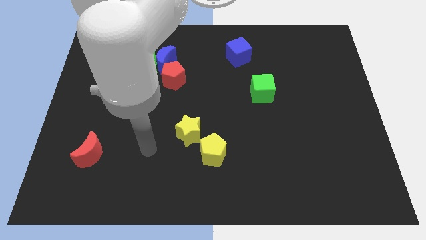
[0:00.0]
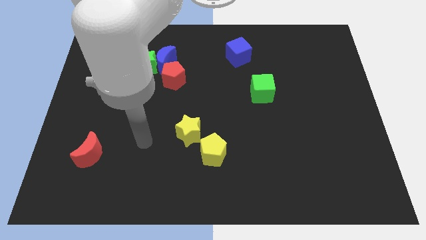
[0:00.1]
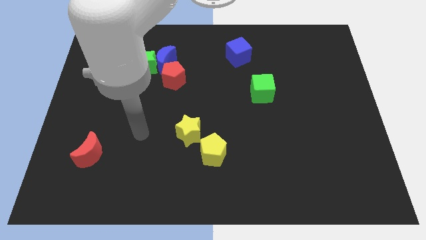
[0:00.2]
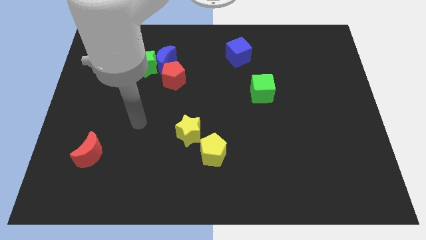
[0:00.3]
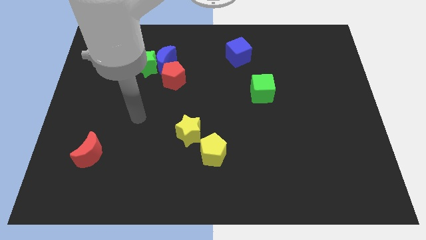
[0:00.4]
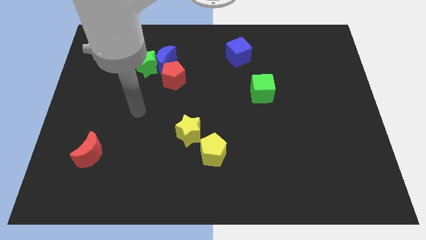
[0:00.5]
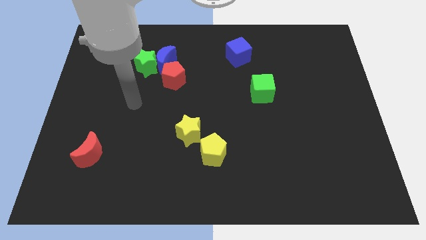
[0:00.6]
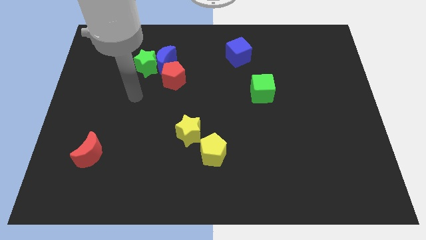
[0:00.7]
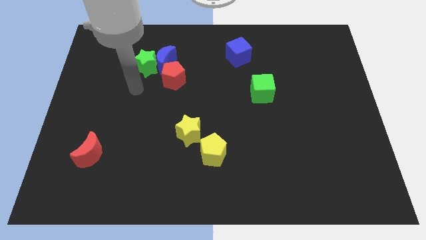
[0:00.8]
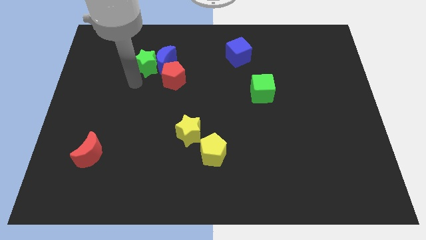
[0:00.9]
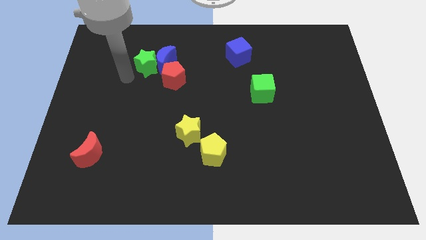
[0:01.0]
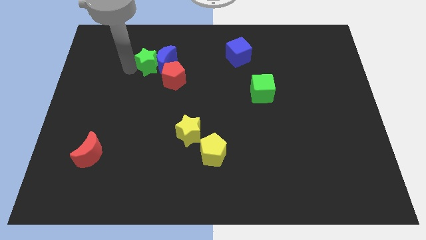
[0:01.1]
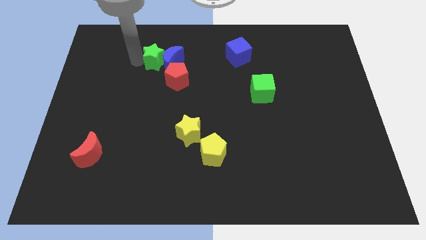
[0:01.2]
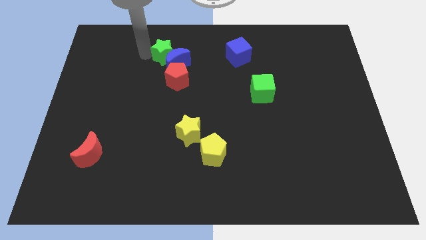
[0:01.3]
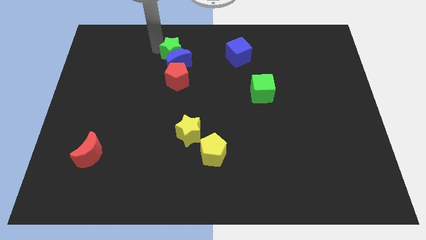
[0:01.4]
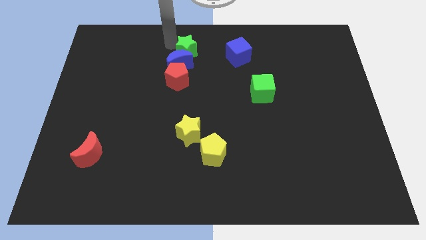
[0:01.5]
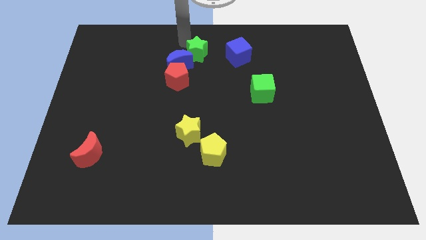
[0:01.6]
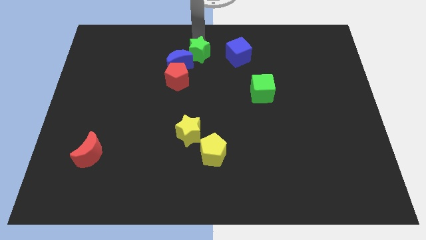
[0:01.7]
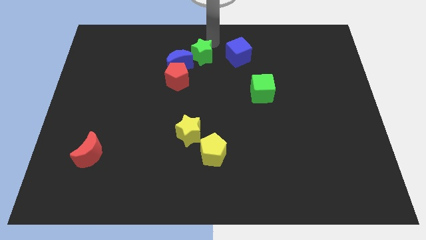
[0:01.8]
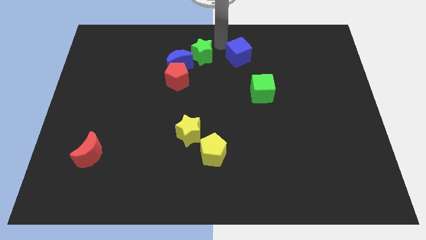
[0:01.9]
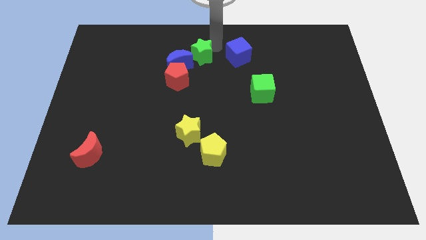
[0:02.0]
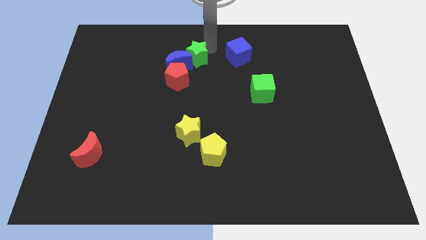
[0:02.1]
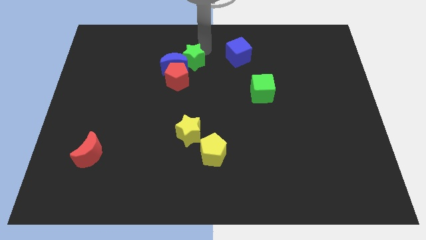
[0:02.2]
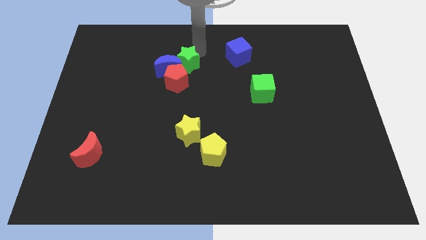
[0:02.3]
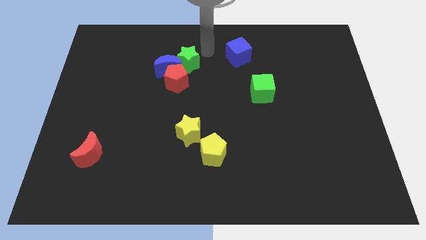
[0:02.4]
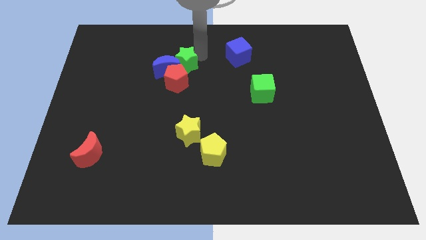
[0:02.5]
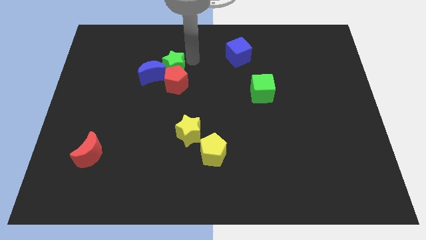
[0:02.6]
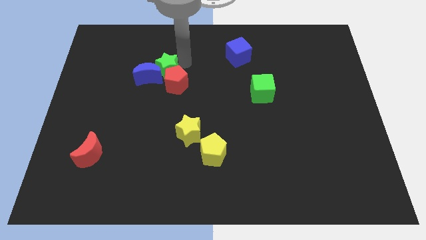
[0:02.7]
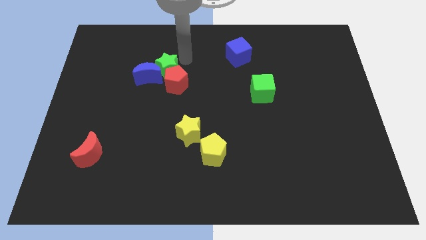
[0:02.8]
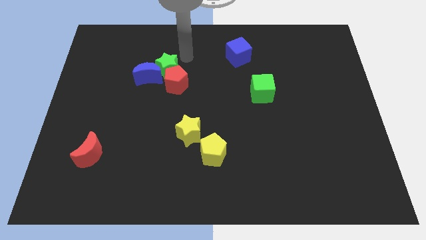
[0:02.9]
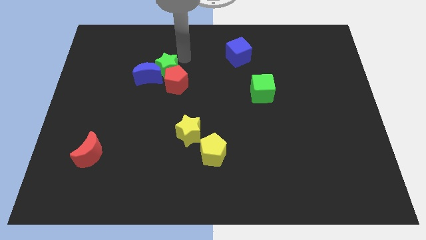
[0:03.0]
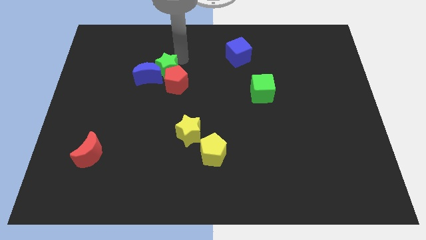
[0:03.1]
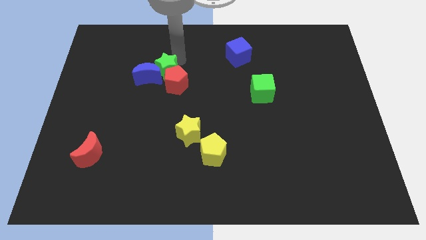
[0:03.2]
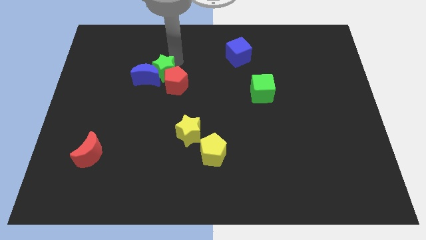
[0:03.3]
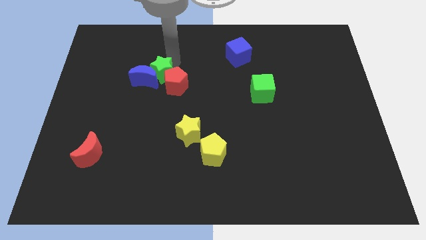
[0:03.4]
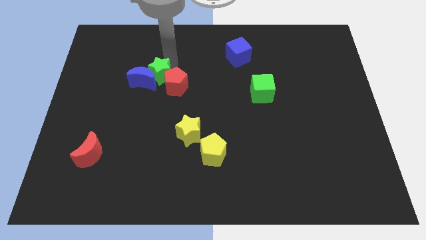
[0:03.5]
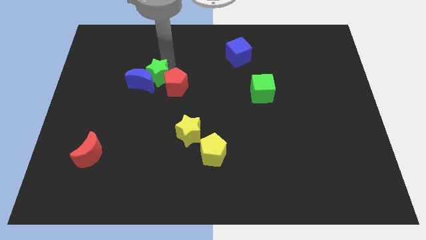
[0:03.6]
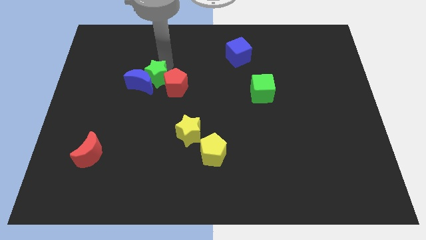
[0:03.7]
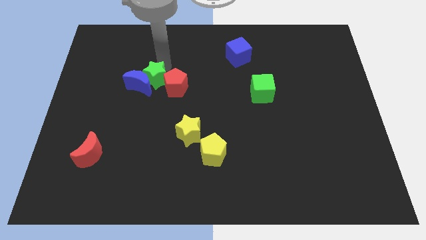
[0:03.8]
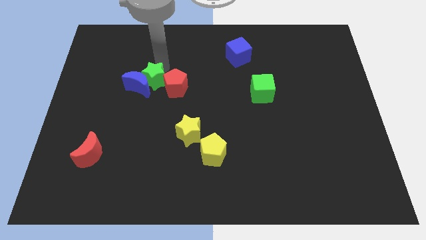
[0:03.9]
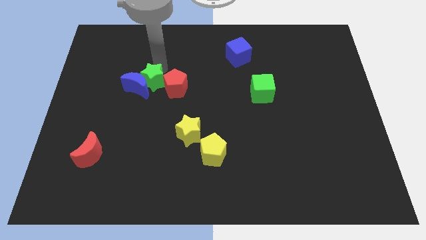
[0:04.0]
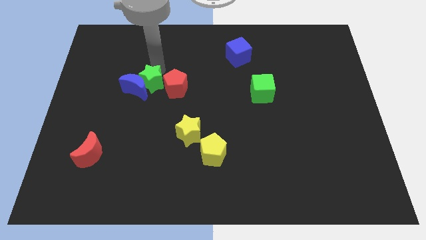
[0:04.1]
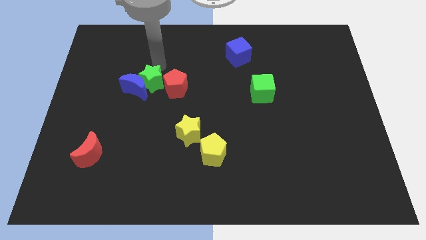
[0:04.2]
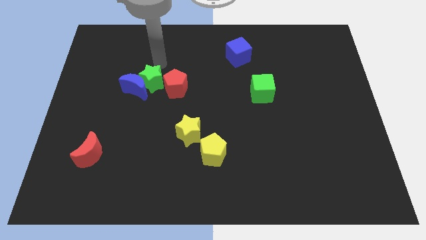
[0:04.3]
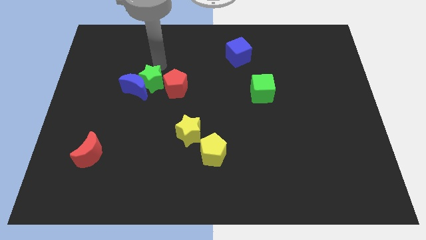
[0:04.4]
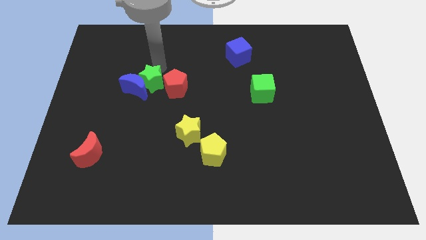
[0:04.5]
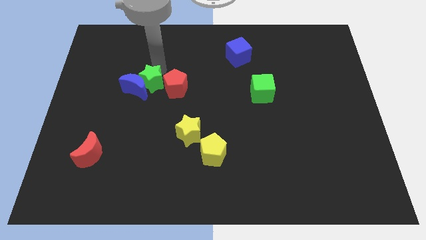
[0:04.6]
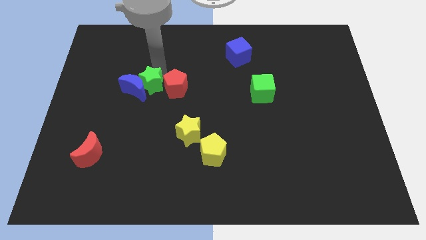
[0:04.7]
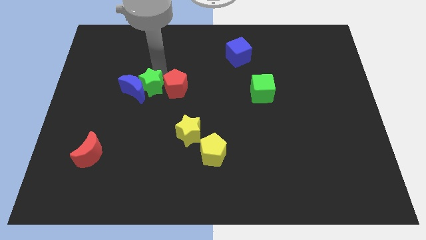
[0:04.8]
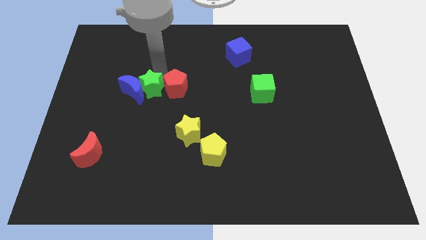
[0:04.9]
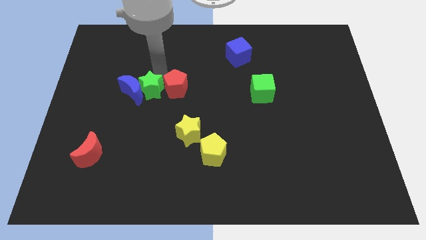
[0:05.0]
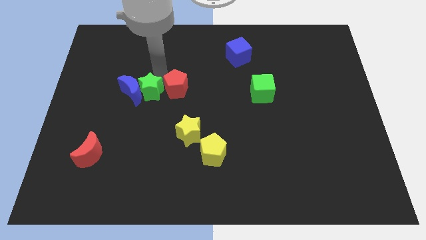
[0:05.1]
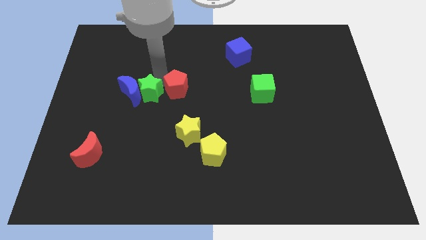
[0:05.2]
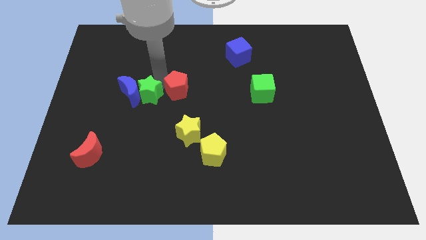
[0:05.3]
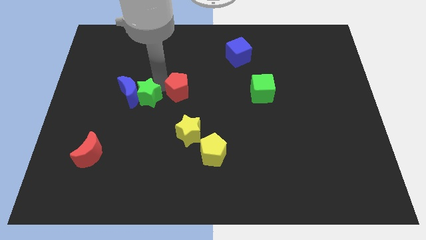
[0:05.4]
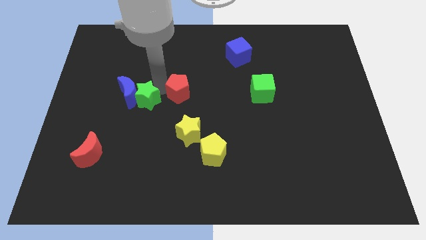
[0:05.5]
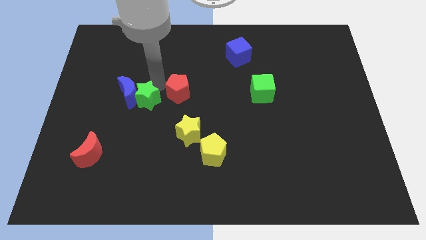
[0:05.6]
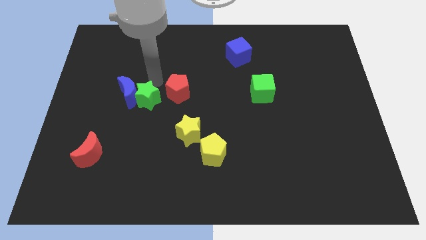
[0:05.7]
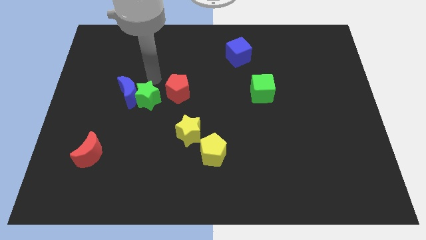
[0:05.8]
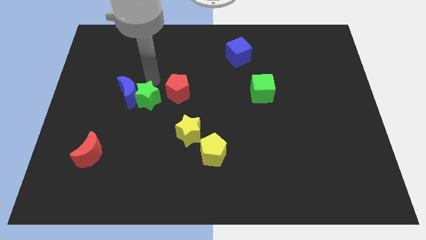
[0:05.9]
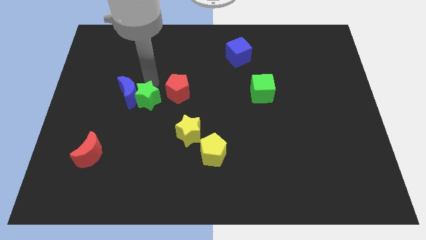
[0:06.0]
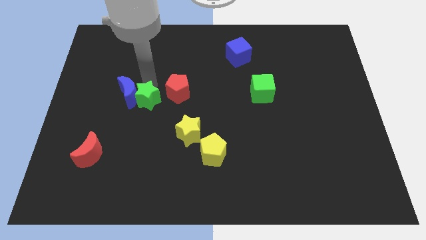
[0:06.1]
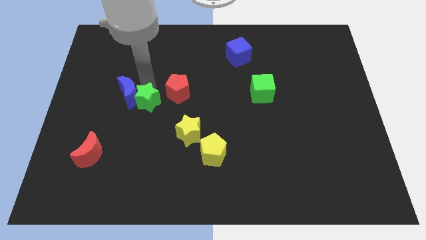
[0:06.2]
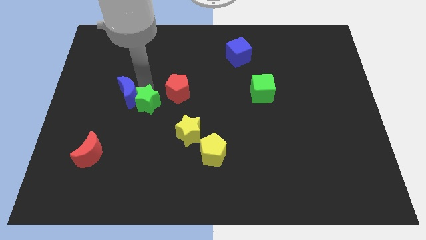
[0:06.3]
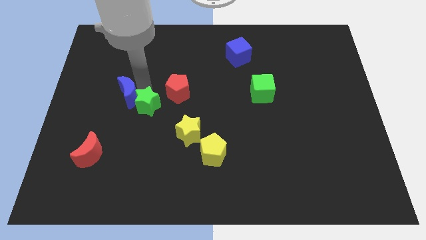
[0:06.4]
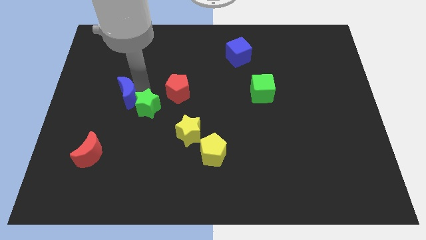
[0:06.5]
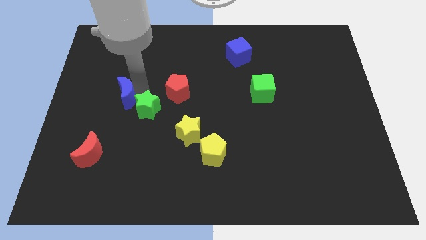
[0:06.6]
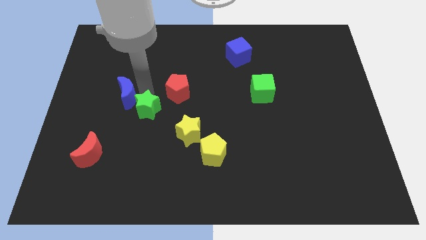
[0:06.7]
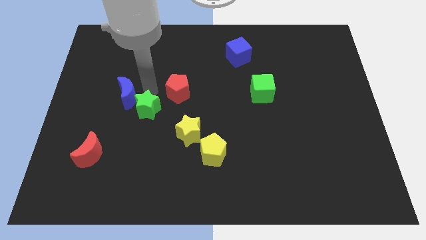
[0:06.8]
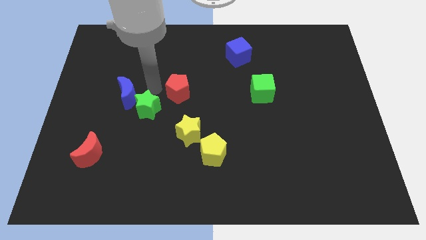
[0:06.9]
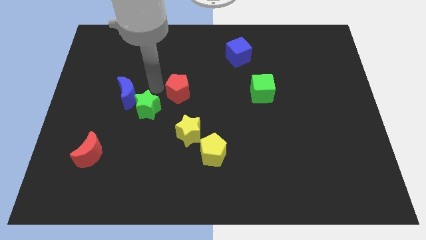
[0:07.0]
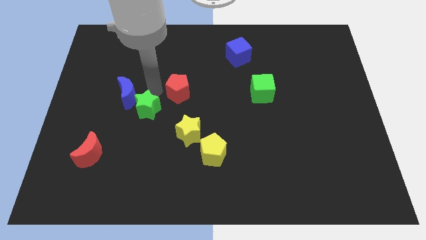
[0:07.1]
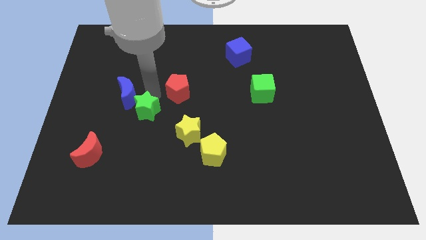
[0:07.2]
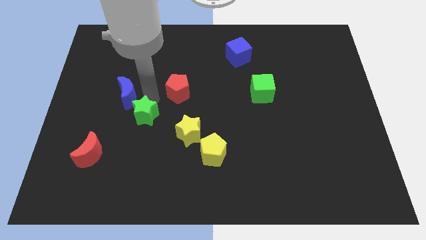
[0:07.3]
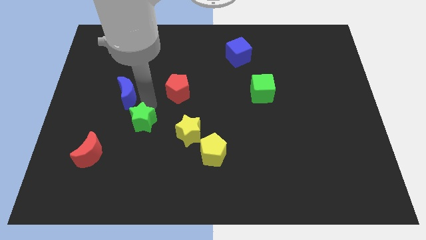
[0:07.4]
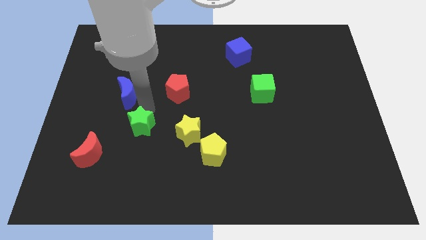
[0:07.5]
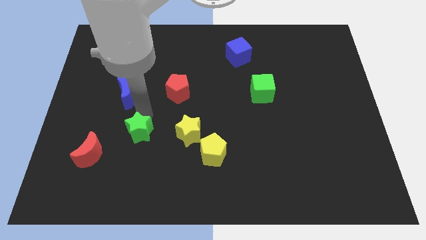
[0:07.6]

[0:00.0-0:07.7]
move the green star down

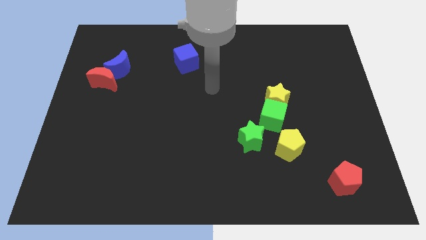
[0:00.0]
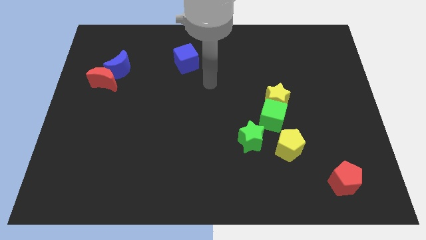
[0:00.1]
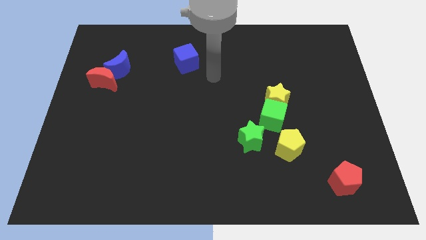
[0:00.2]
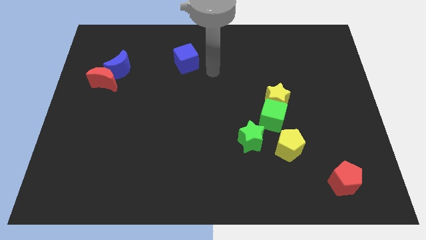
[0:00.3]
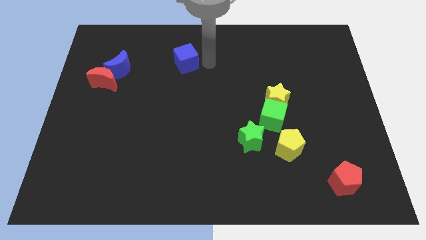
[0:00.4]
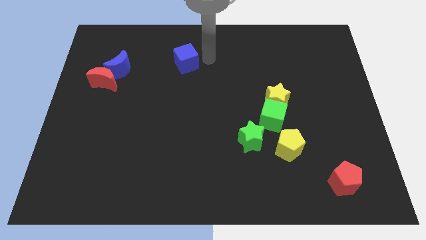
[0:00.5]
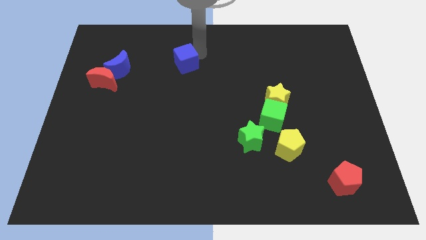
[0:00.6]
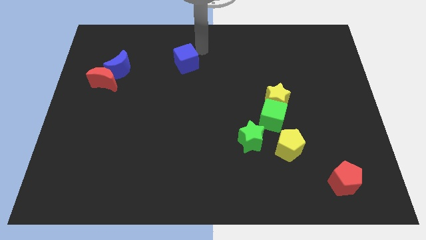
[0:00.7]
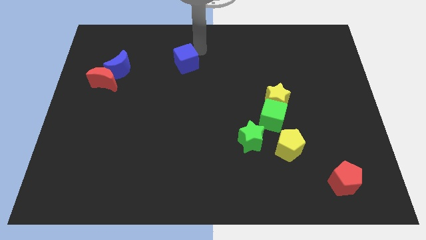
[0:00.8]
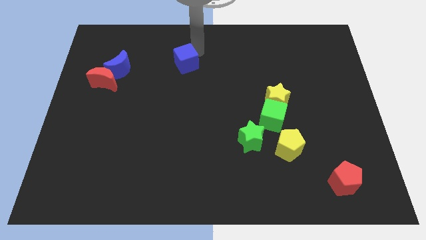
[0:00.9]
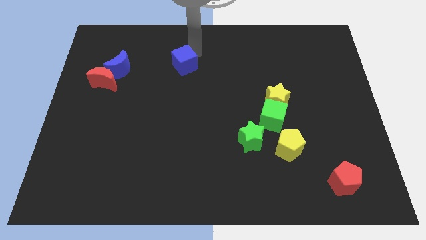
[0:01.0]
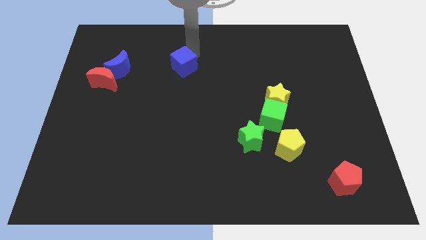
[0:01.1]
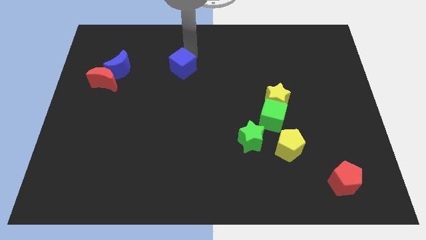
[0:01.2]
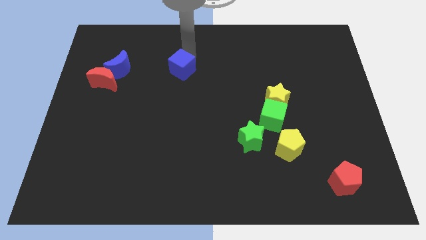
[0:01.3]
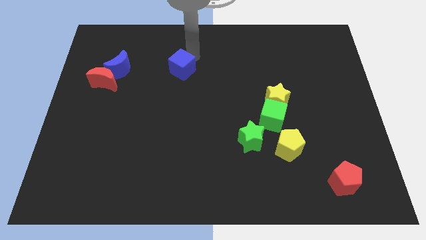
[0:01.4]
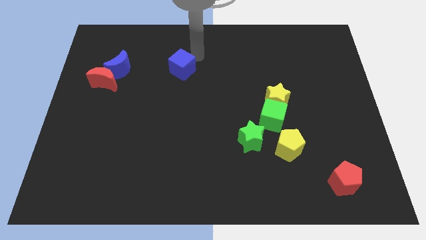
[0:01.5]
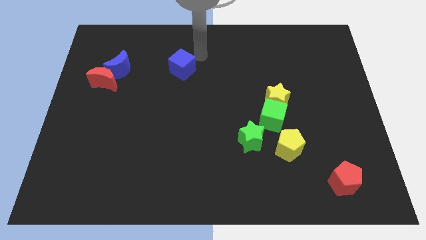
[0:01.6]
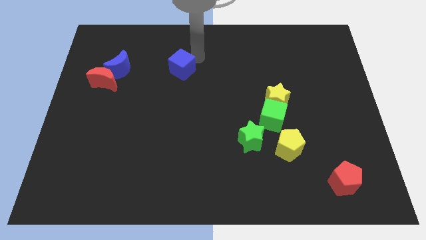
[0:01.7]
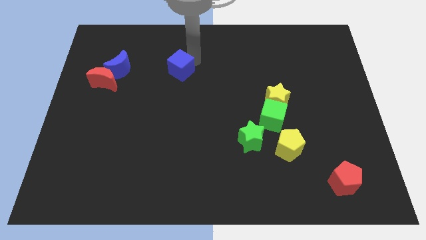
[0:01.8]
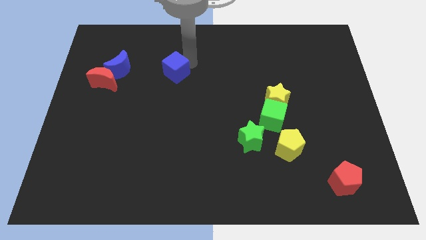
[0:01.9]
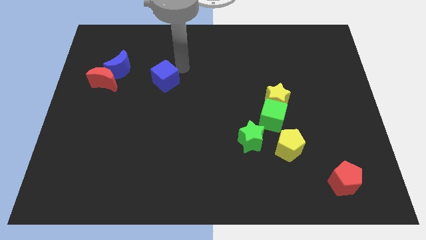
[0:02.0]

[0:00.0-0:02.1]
slightly slide the blue cube down and then to the left
